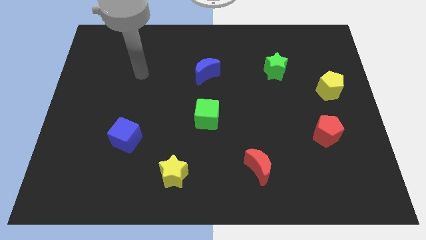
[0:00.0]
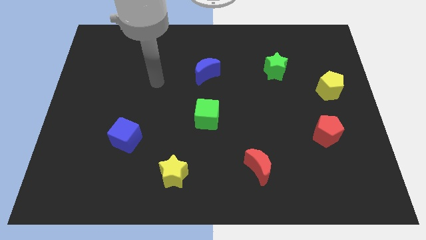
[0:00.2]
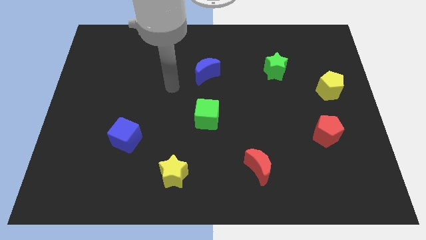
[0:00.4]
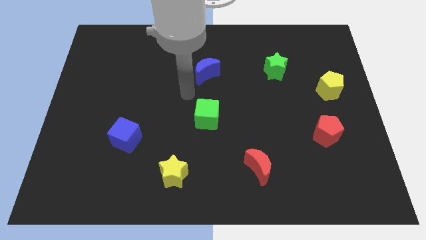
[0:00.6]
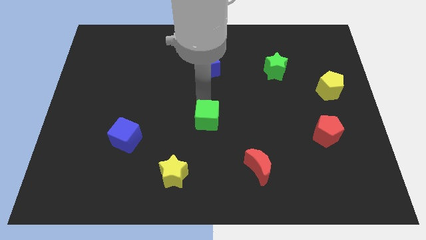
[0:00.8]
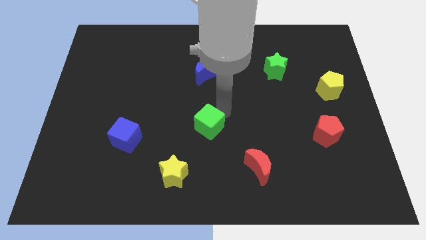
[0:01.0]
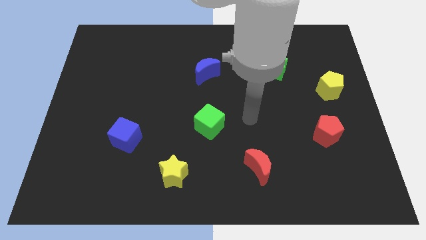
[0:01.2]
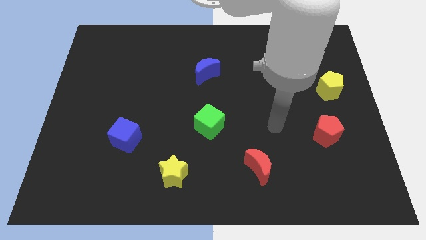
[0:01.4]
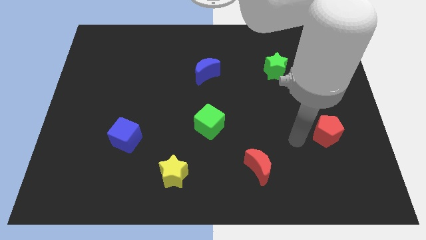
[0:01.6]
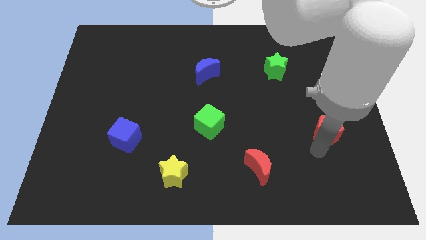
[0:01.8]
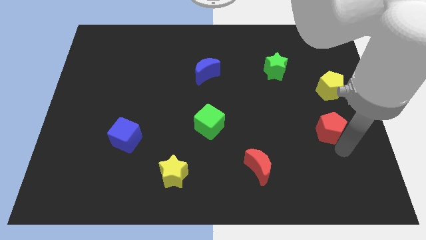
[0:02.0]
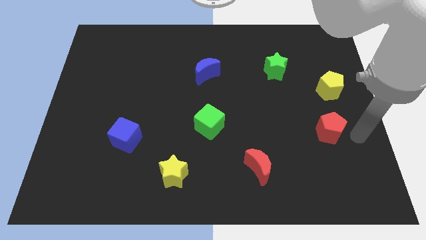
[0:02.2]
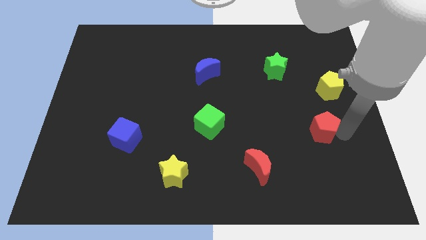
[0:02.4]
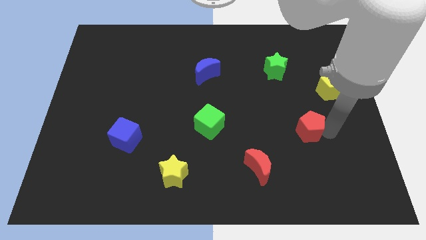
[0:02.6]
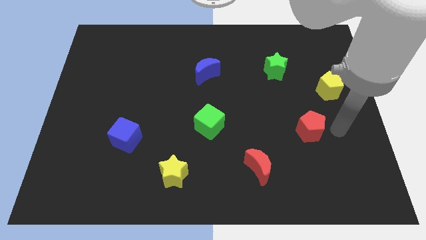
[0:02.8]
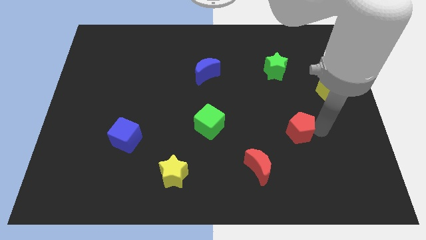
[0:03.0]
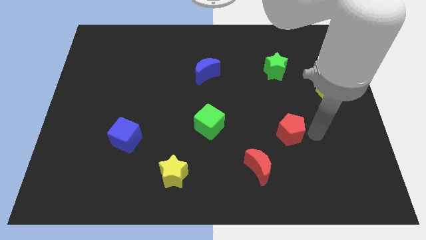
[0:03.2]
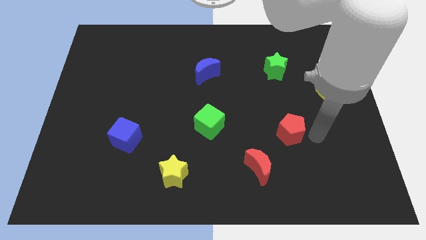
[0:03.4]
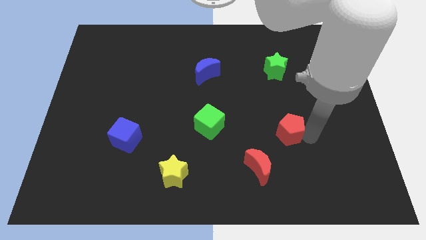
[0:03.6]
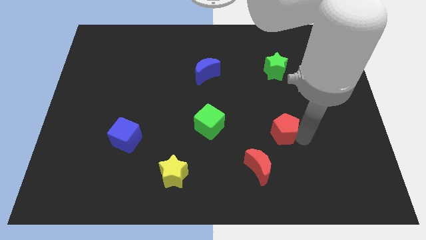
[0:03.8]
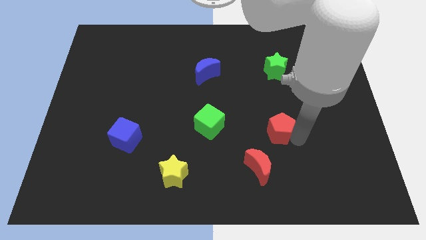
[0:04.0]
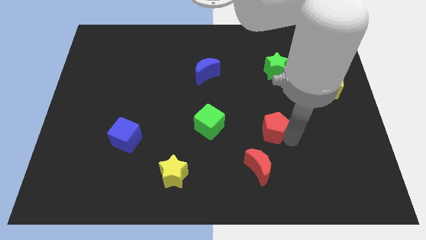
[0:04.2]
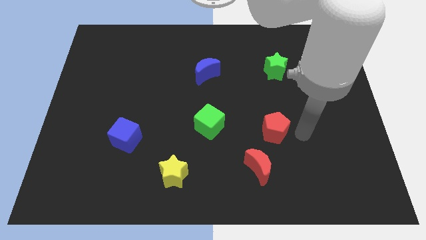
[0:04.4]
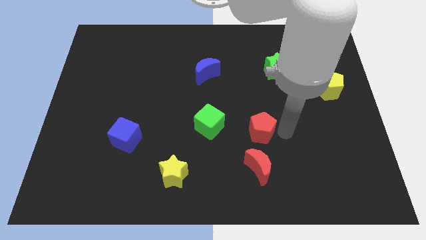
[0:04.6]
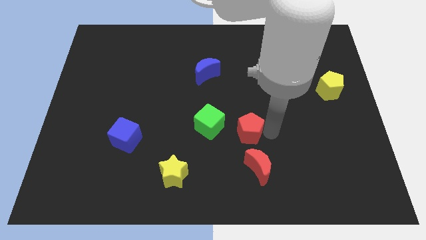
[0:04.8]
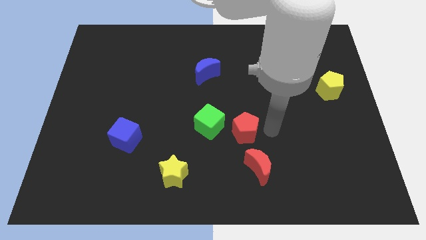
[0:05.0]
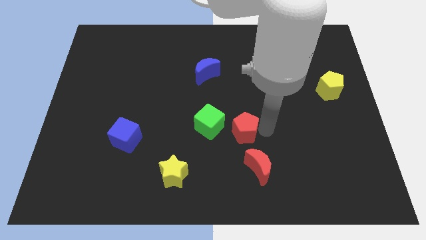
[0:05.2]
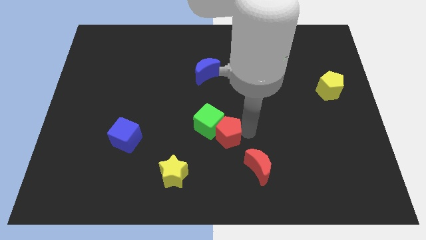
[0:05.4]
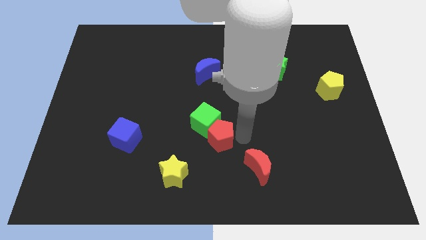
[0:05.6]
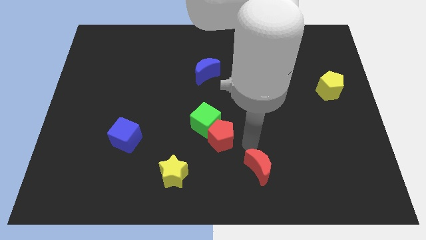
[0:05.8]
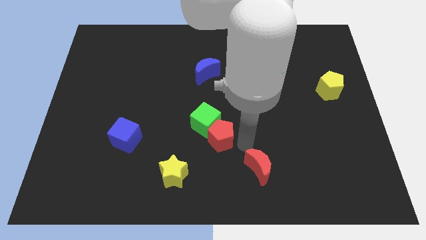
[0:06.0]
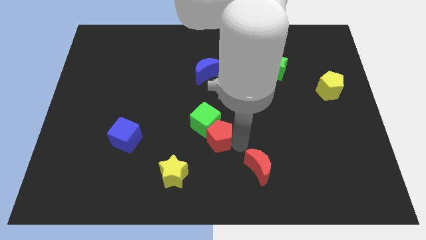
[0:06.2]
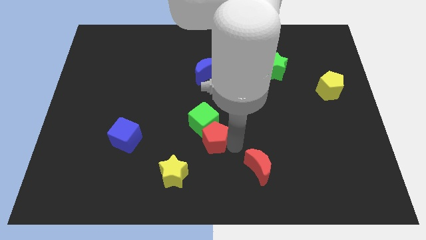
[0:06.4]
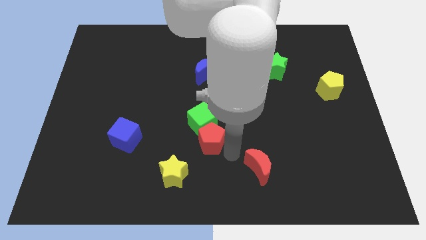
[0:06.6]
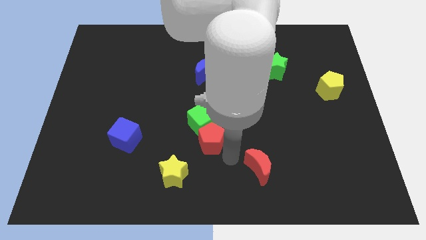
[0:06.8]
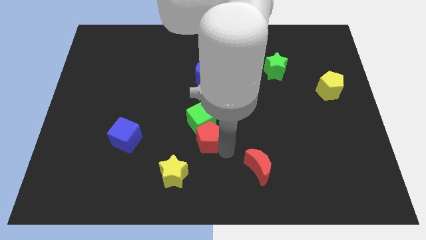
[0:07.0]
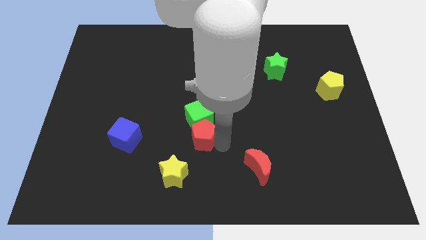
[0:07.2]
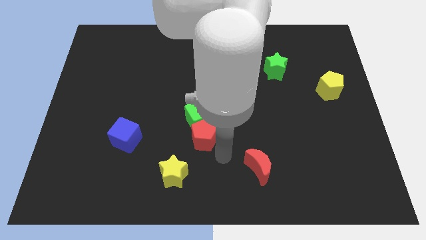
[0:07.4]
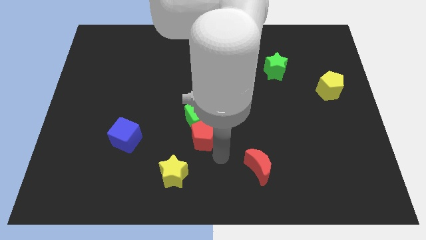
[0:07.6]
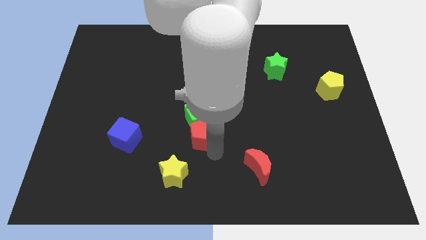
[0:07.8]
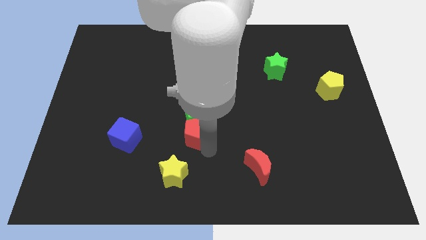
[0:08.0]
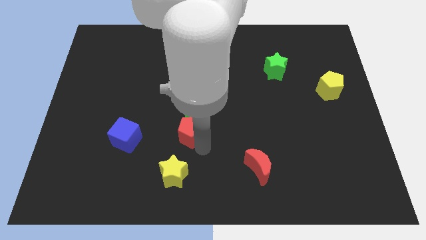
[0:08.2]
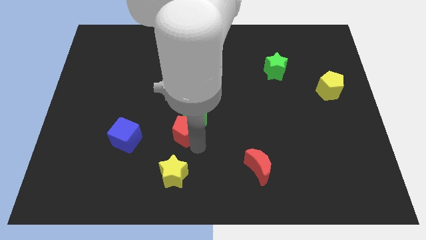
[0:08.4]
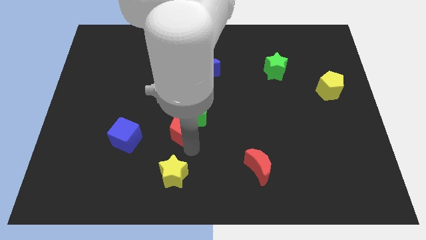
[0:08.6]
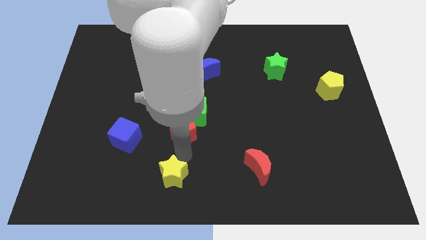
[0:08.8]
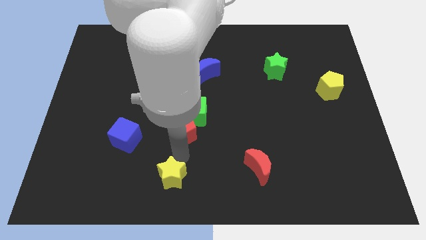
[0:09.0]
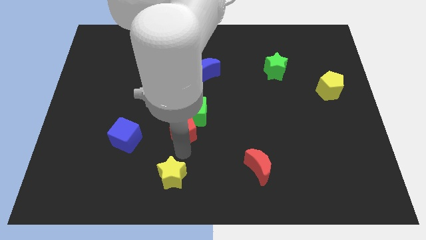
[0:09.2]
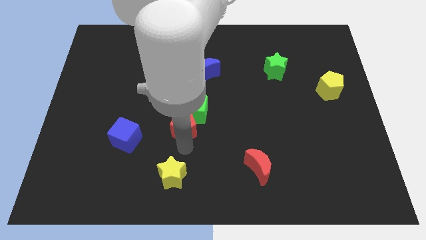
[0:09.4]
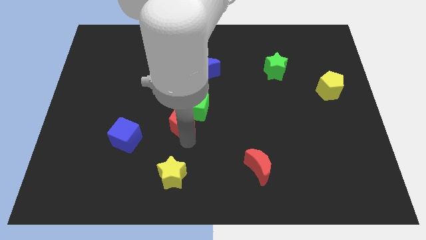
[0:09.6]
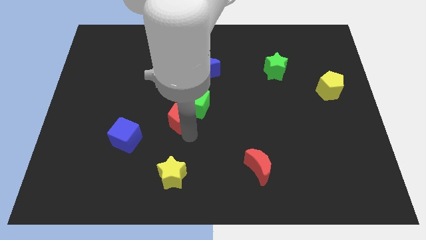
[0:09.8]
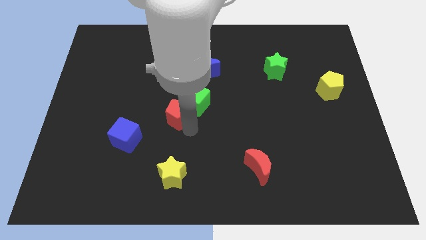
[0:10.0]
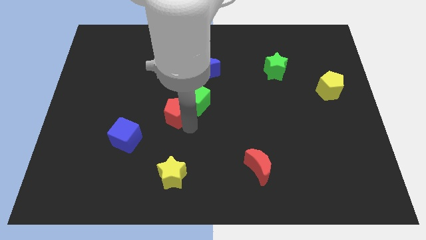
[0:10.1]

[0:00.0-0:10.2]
push the red pentagon to the top right side of the blue cube

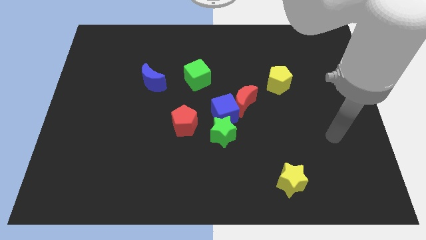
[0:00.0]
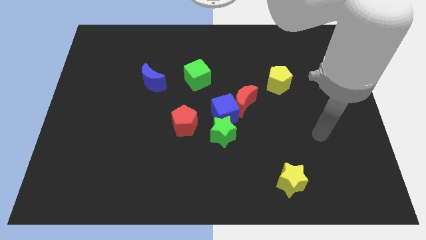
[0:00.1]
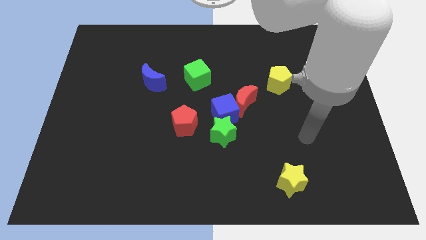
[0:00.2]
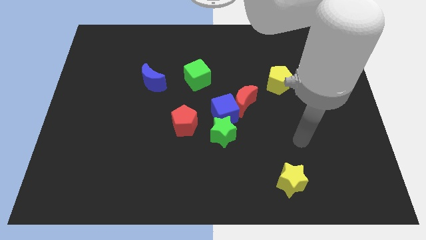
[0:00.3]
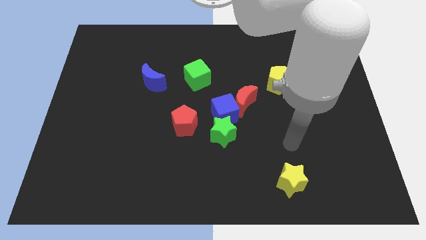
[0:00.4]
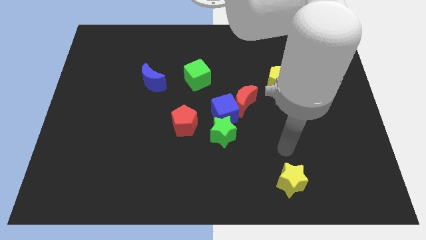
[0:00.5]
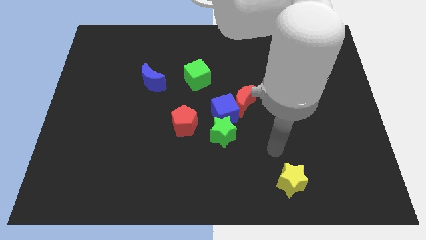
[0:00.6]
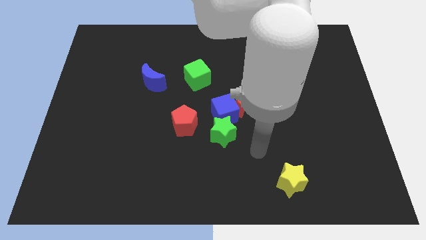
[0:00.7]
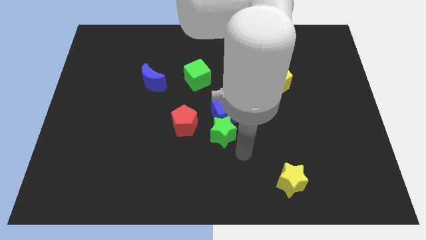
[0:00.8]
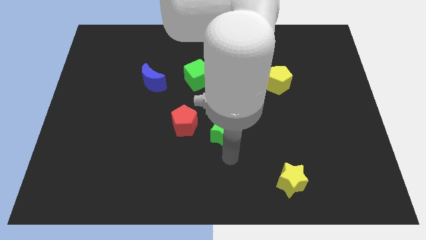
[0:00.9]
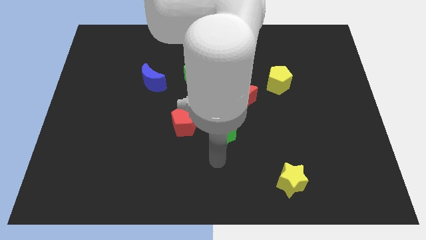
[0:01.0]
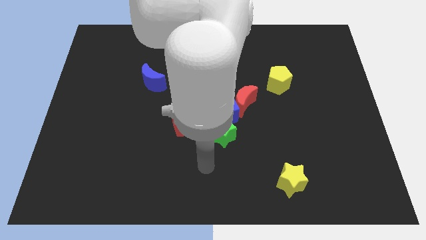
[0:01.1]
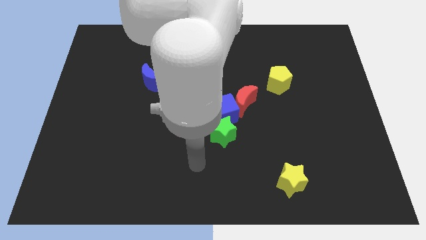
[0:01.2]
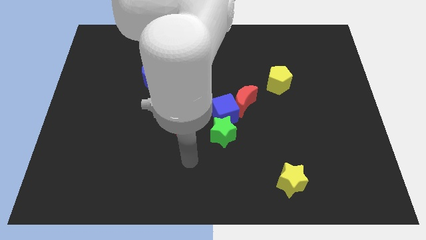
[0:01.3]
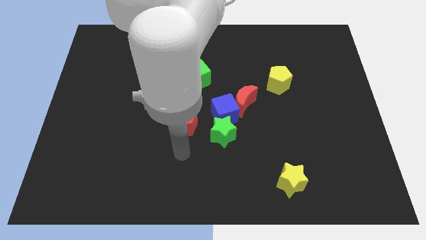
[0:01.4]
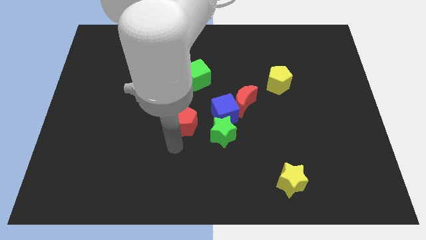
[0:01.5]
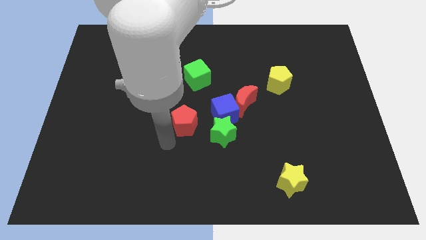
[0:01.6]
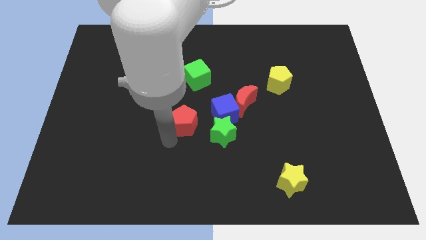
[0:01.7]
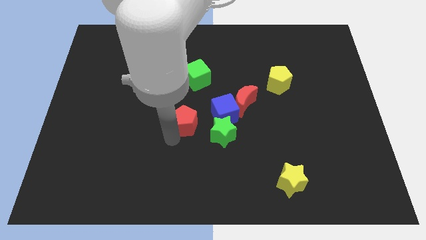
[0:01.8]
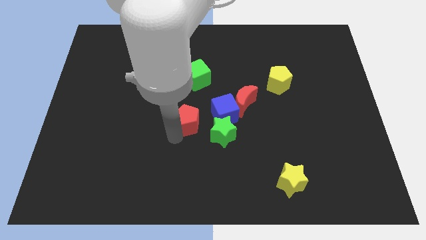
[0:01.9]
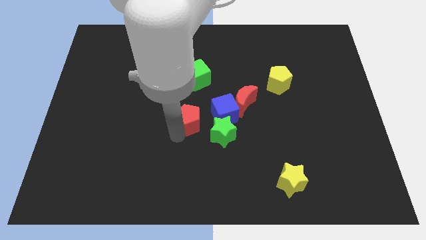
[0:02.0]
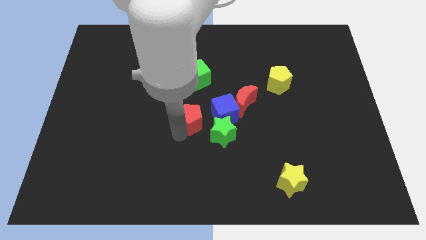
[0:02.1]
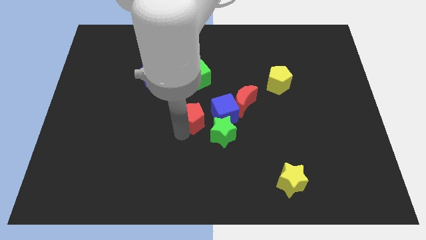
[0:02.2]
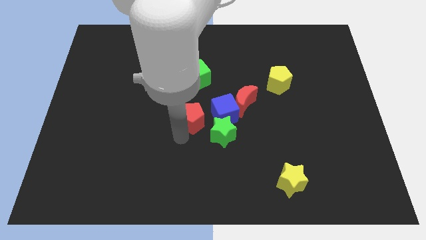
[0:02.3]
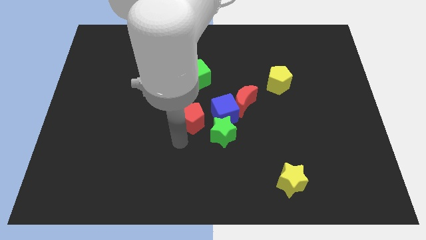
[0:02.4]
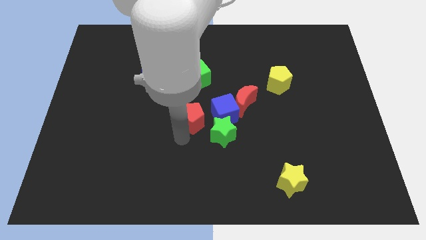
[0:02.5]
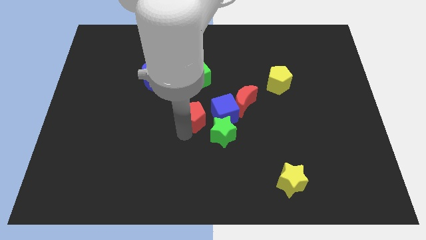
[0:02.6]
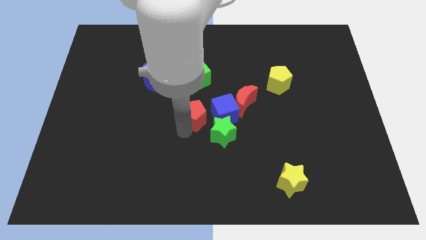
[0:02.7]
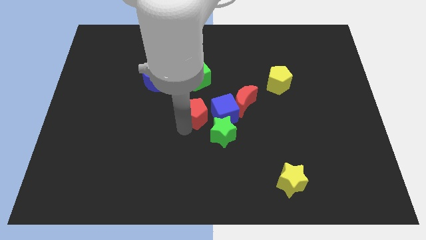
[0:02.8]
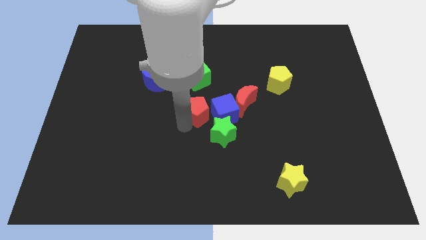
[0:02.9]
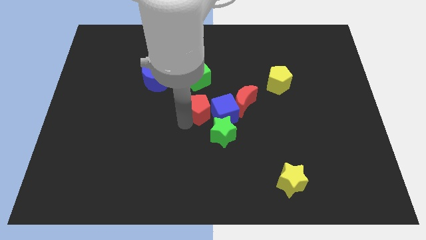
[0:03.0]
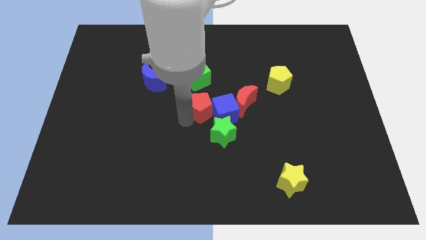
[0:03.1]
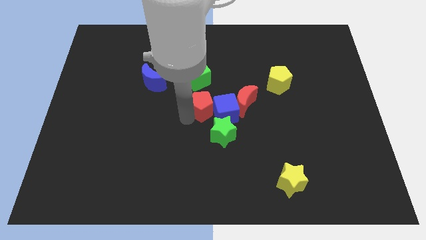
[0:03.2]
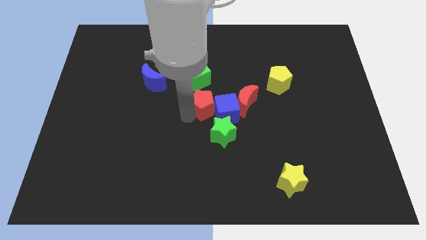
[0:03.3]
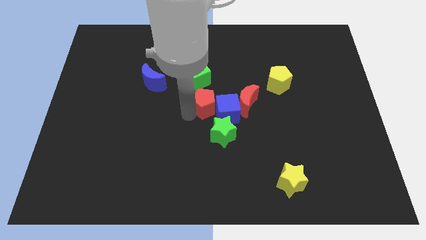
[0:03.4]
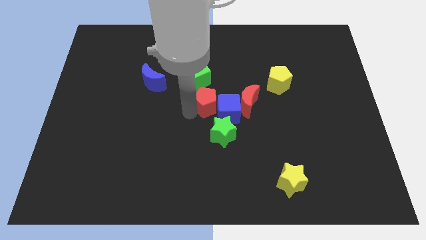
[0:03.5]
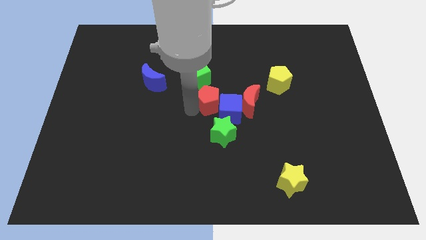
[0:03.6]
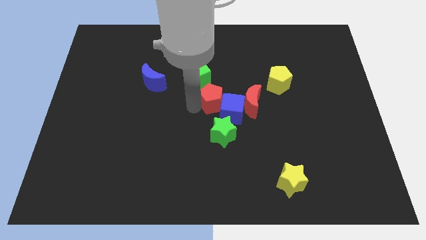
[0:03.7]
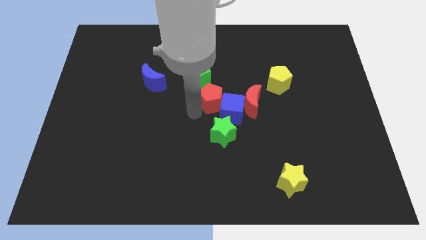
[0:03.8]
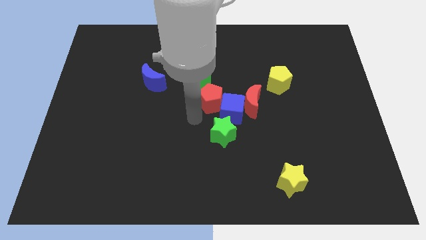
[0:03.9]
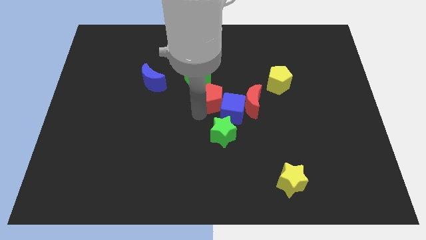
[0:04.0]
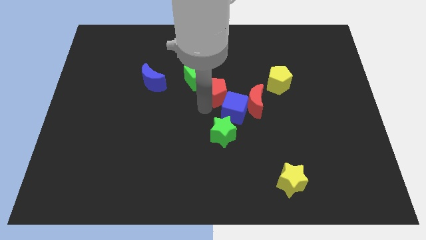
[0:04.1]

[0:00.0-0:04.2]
slide the red pentagon above the blue cube
